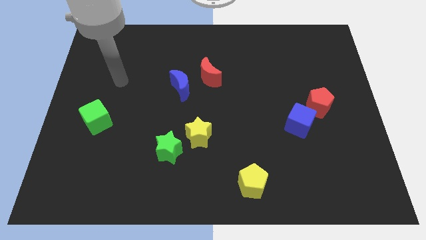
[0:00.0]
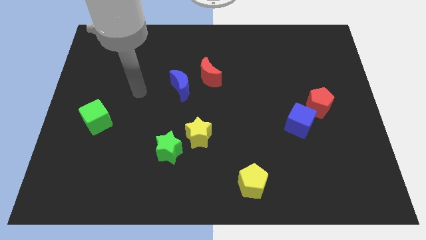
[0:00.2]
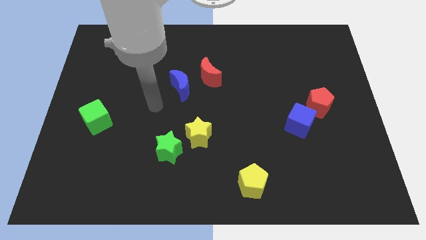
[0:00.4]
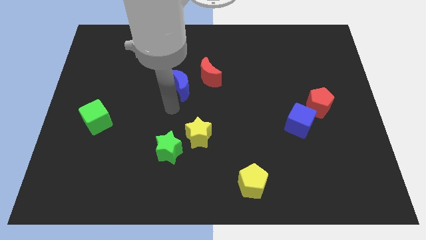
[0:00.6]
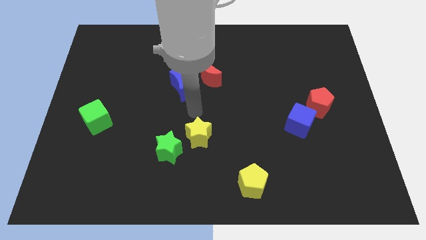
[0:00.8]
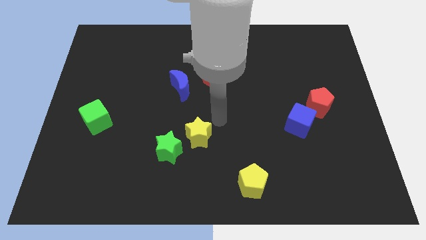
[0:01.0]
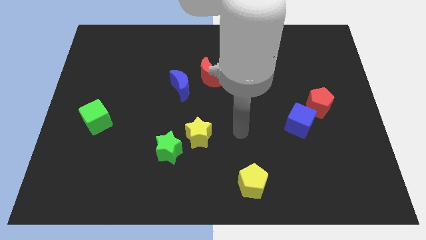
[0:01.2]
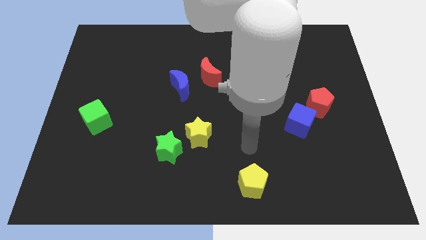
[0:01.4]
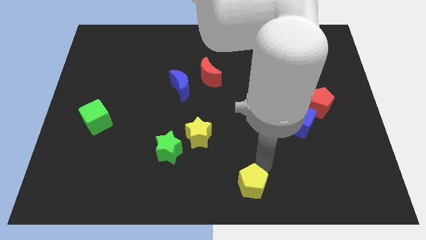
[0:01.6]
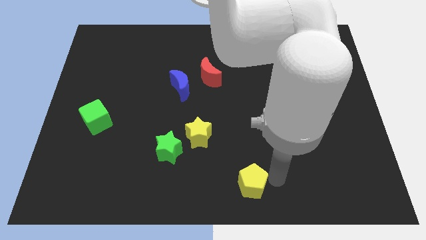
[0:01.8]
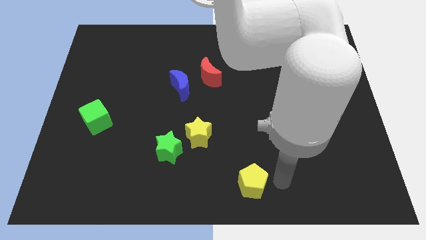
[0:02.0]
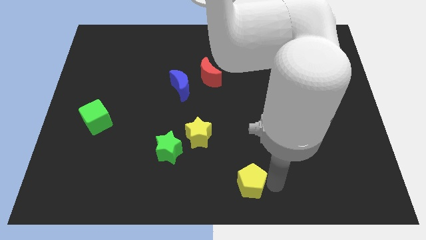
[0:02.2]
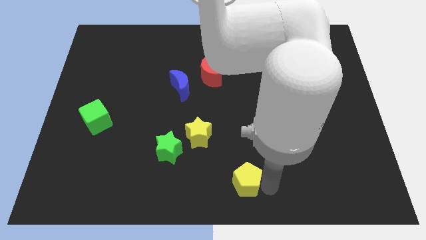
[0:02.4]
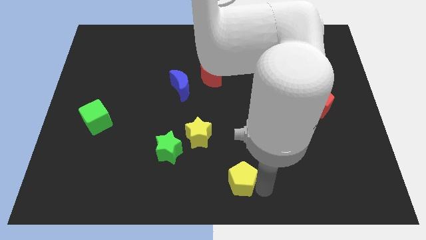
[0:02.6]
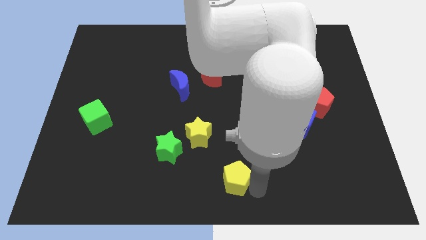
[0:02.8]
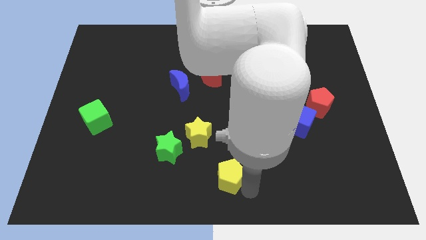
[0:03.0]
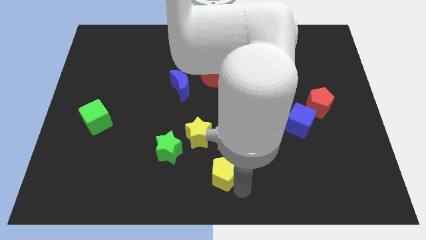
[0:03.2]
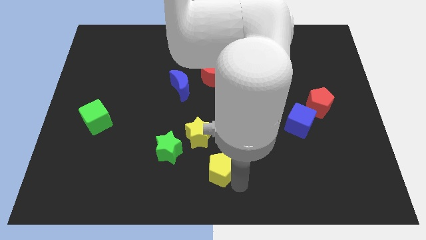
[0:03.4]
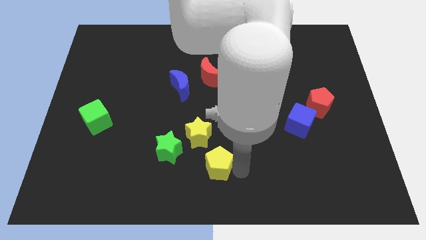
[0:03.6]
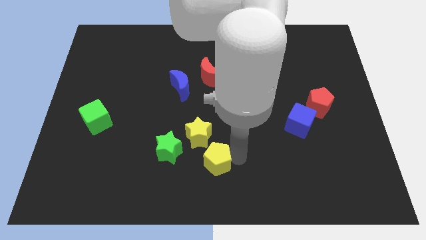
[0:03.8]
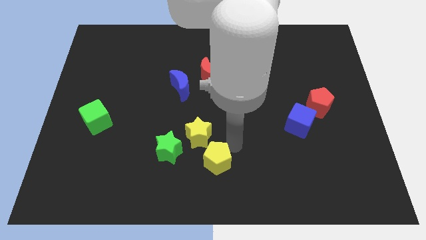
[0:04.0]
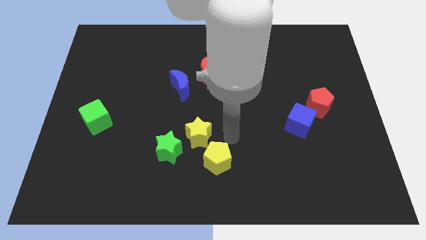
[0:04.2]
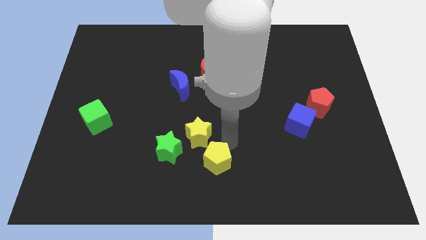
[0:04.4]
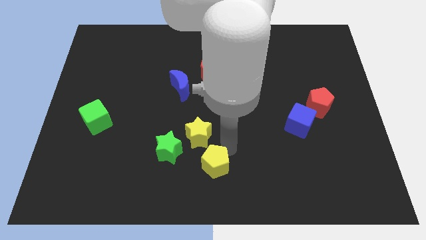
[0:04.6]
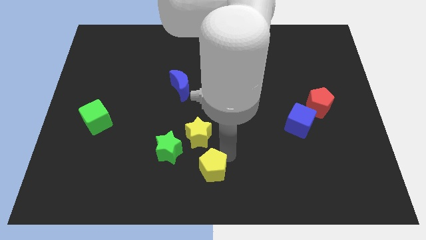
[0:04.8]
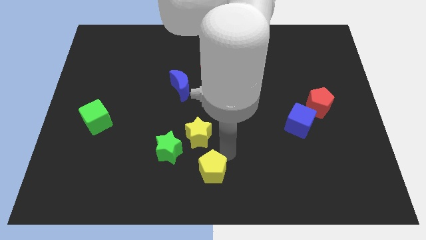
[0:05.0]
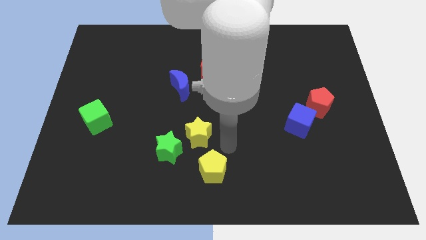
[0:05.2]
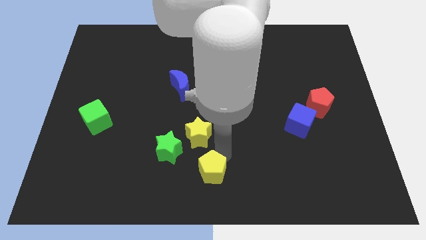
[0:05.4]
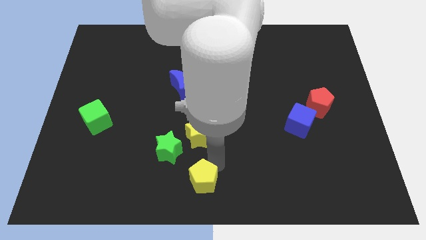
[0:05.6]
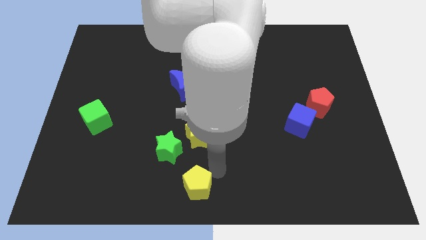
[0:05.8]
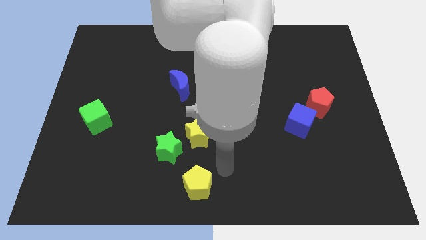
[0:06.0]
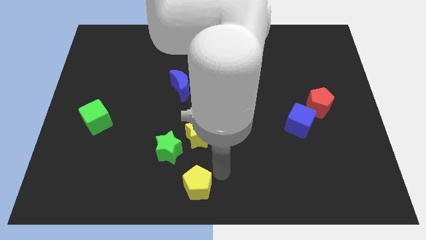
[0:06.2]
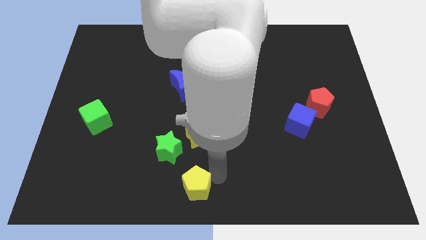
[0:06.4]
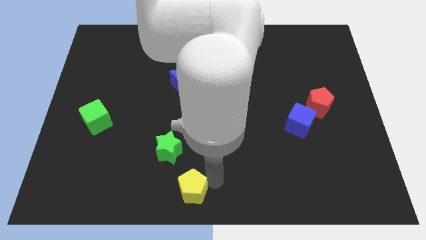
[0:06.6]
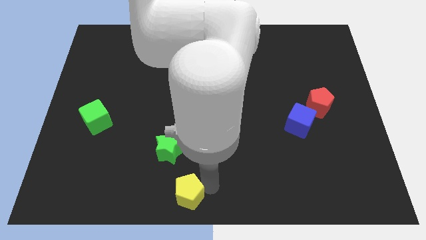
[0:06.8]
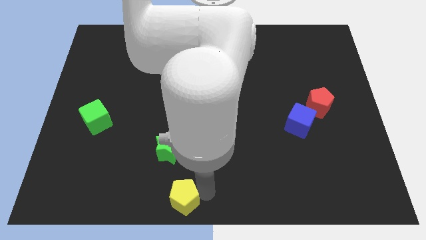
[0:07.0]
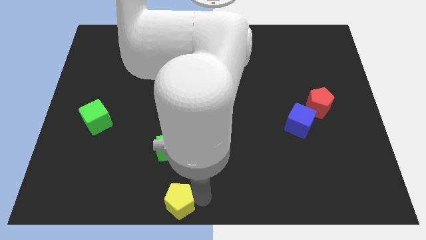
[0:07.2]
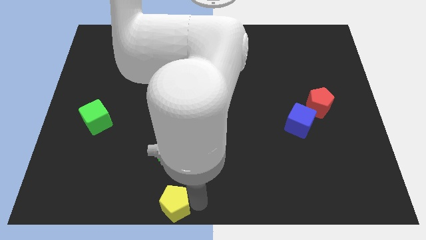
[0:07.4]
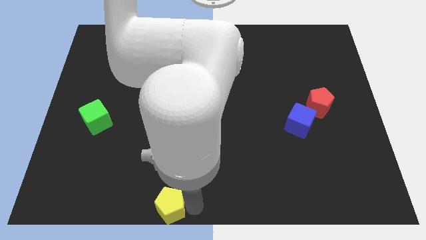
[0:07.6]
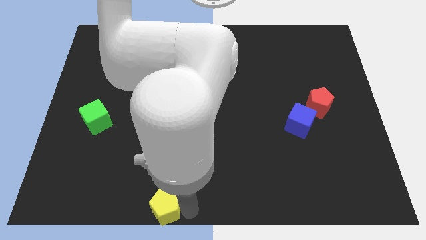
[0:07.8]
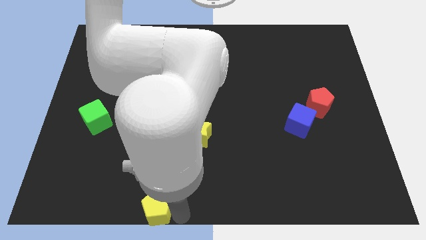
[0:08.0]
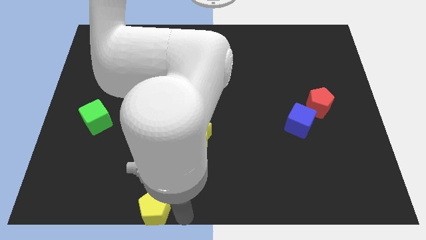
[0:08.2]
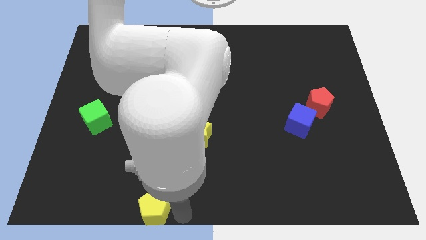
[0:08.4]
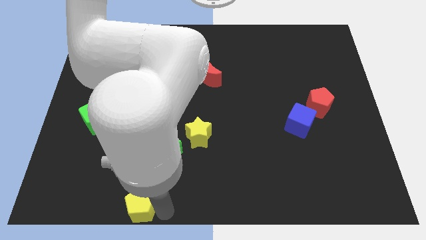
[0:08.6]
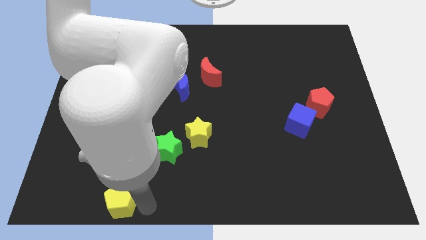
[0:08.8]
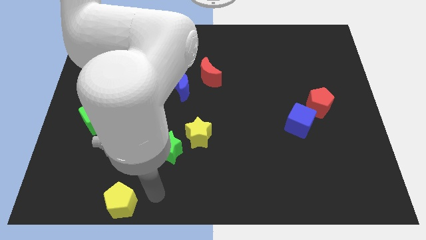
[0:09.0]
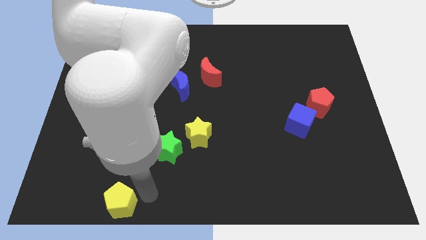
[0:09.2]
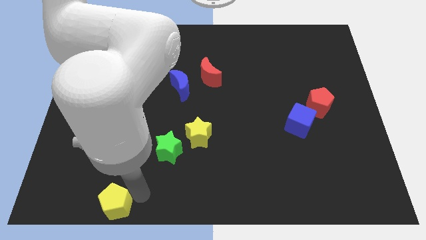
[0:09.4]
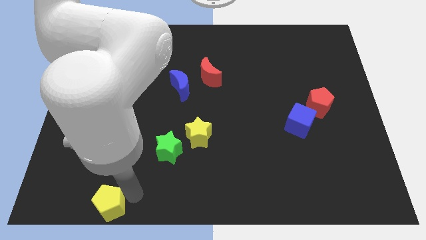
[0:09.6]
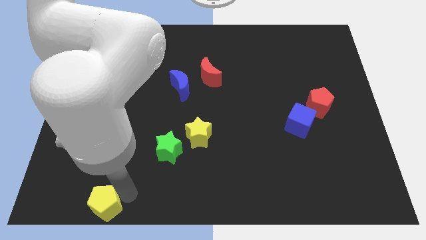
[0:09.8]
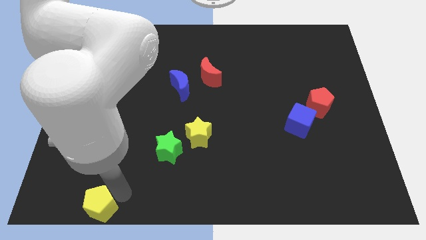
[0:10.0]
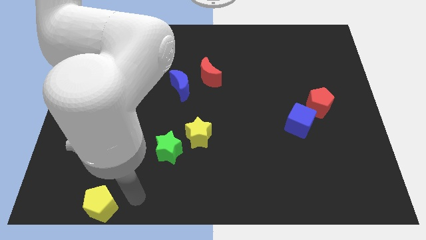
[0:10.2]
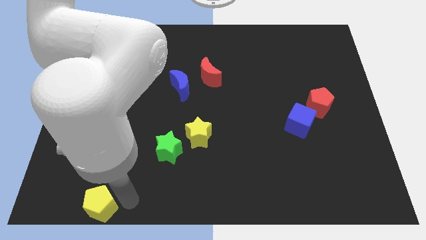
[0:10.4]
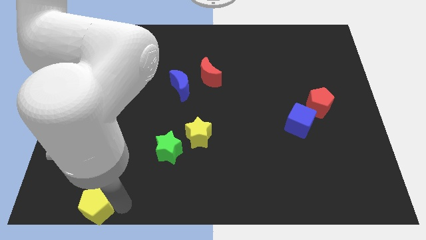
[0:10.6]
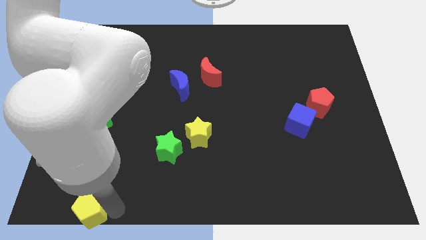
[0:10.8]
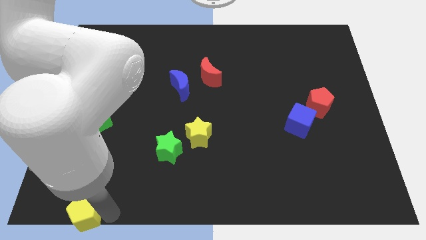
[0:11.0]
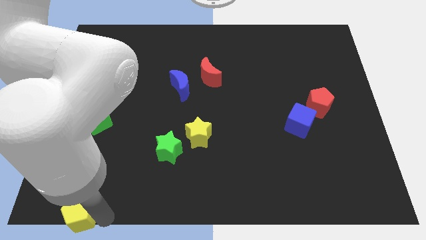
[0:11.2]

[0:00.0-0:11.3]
push the yellow pentagon to the lower left corner
